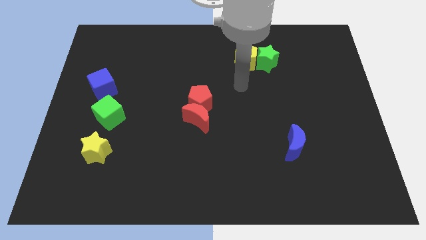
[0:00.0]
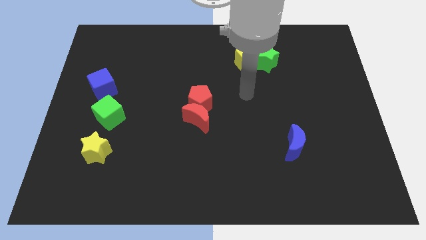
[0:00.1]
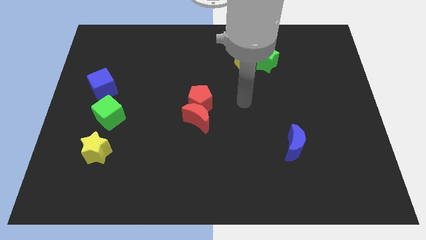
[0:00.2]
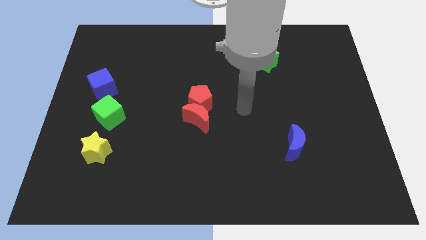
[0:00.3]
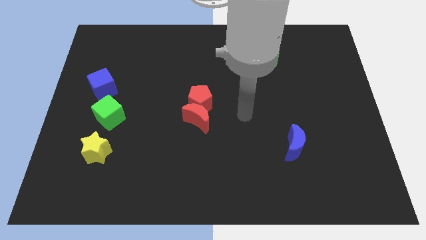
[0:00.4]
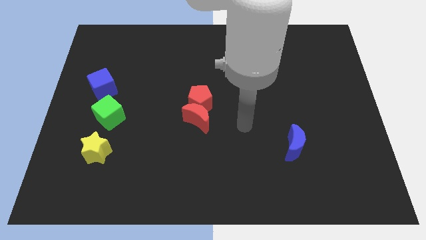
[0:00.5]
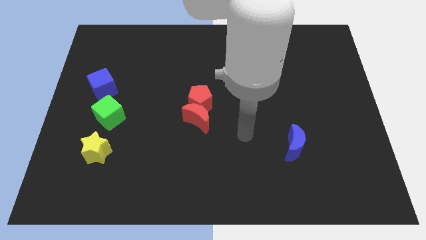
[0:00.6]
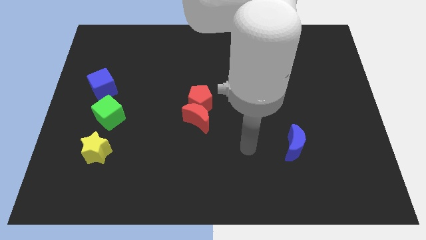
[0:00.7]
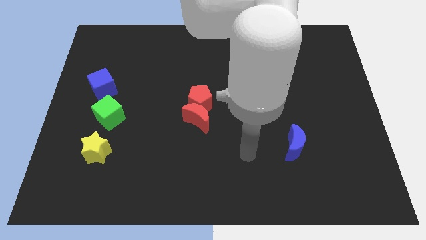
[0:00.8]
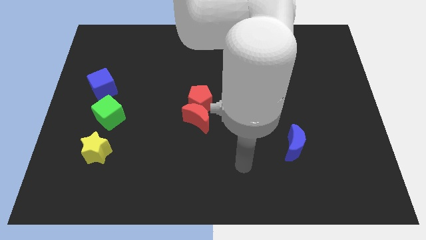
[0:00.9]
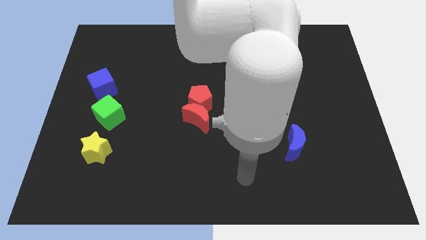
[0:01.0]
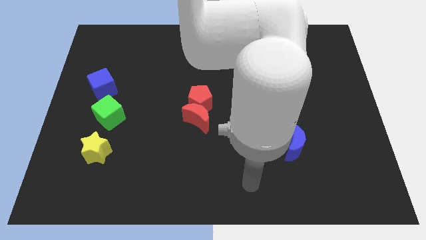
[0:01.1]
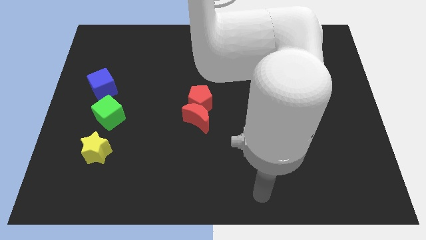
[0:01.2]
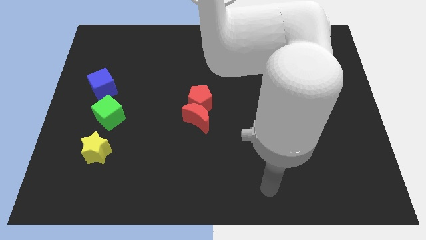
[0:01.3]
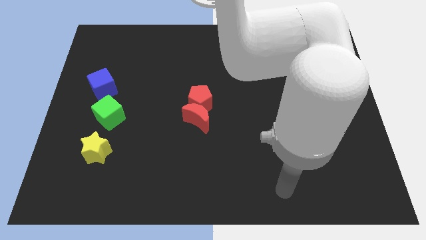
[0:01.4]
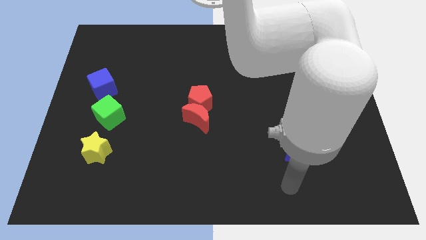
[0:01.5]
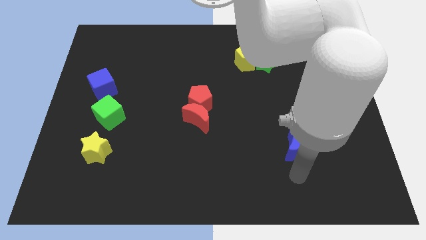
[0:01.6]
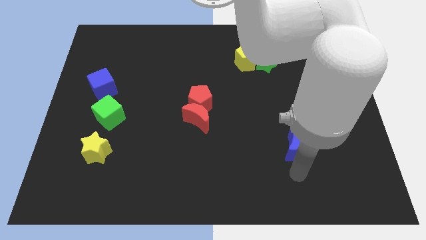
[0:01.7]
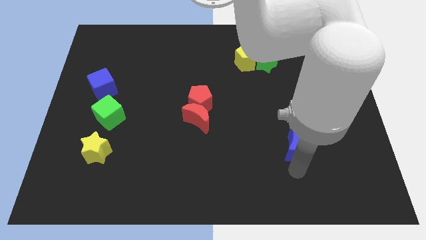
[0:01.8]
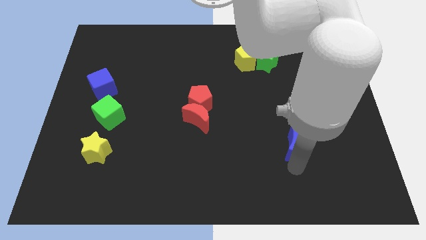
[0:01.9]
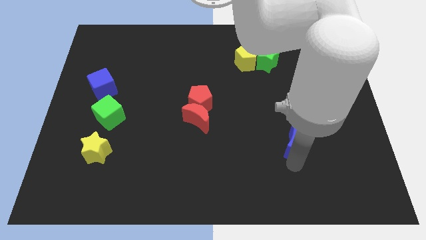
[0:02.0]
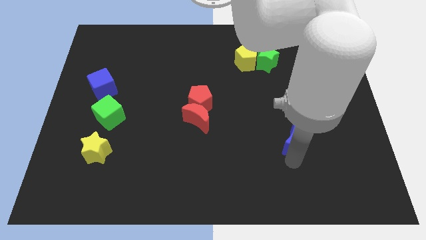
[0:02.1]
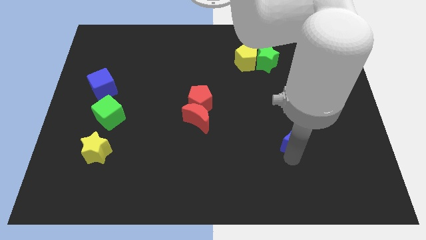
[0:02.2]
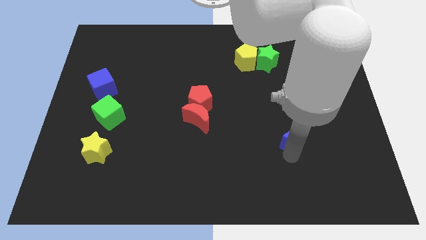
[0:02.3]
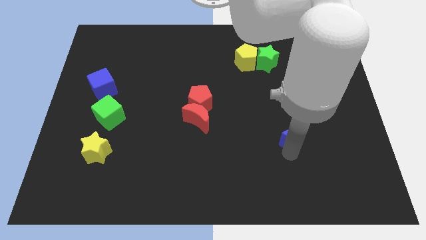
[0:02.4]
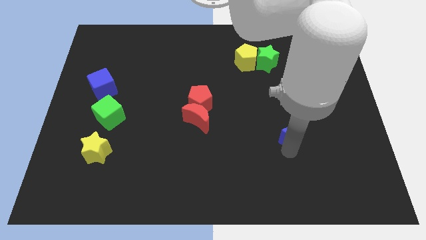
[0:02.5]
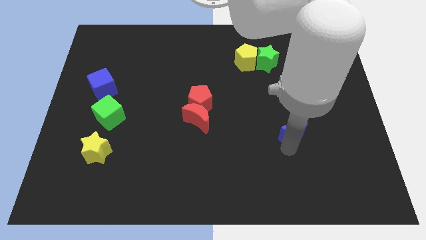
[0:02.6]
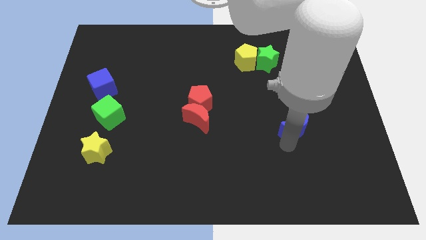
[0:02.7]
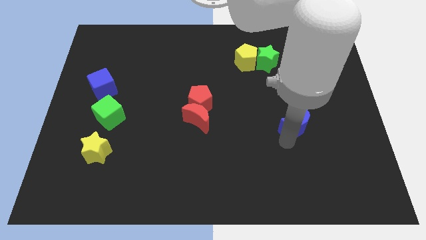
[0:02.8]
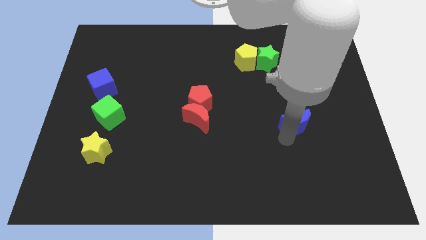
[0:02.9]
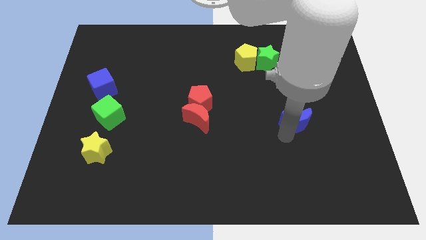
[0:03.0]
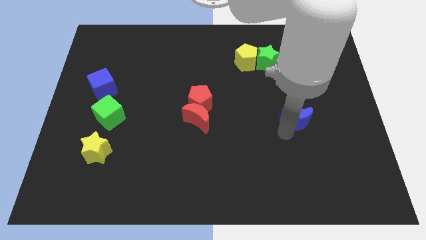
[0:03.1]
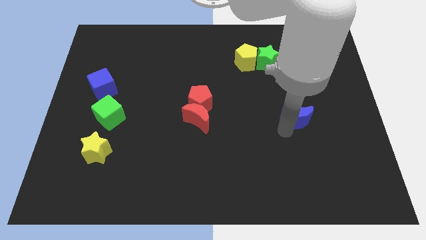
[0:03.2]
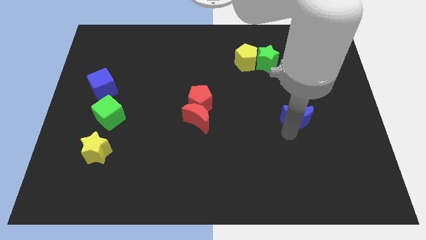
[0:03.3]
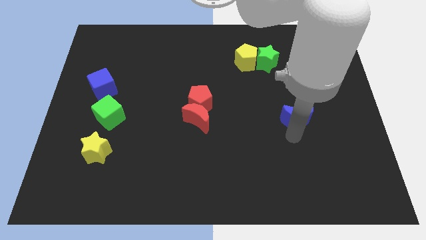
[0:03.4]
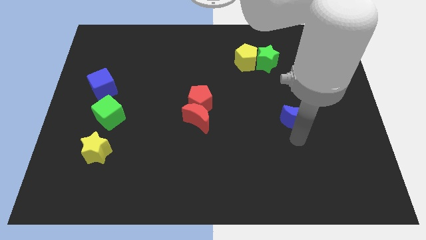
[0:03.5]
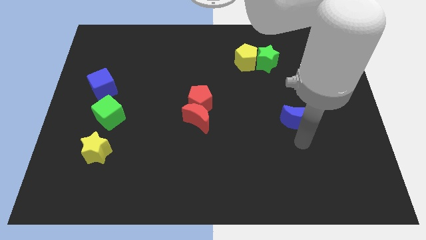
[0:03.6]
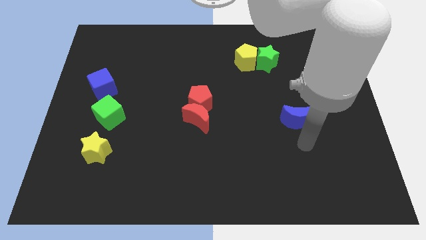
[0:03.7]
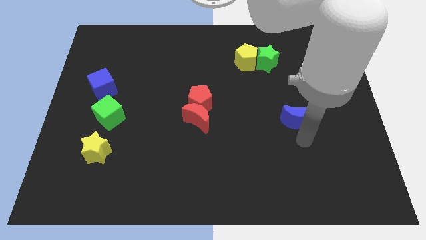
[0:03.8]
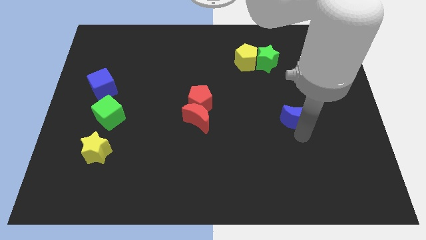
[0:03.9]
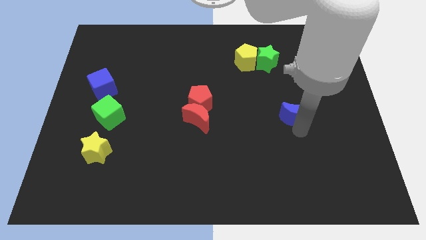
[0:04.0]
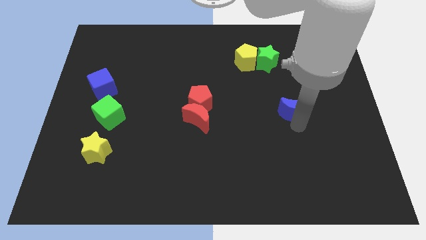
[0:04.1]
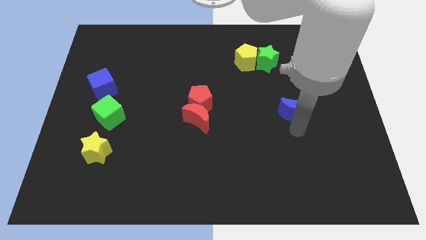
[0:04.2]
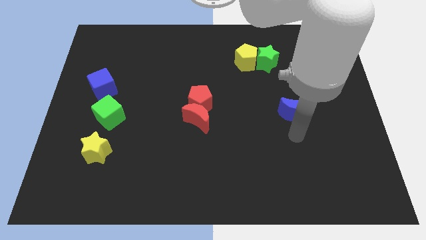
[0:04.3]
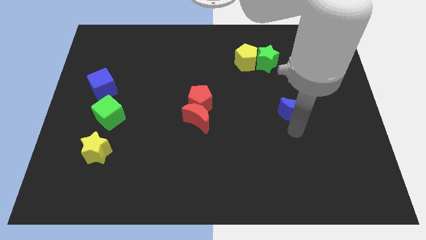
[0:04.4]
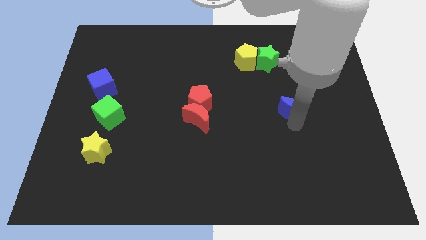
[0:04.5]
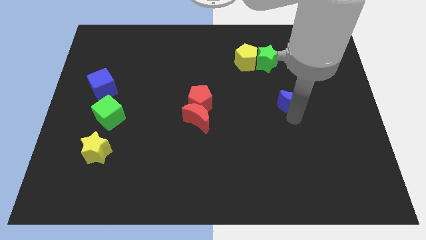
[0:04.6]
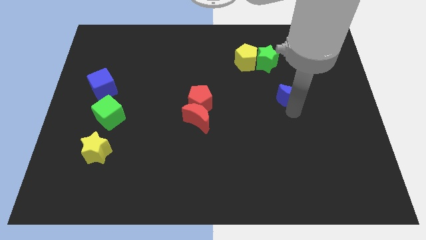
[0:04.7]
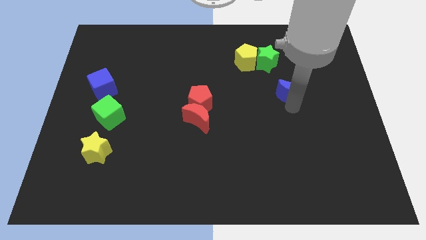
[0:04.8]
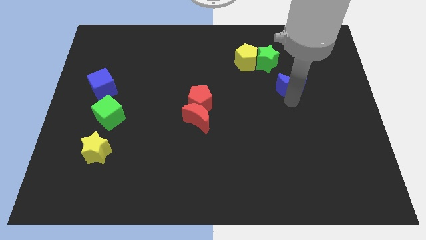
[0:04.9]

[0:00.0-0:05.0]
put the blue moon to the bottom right of the green star

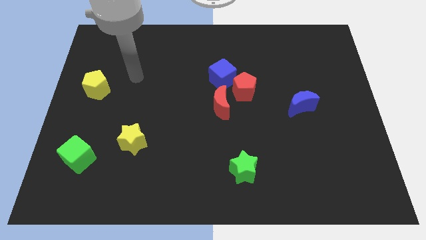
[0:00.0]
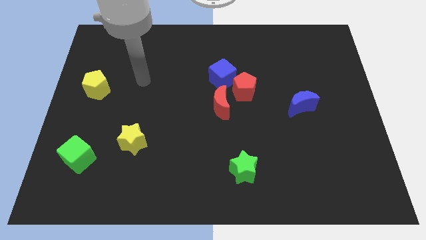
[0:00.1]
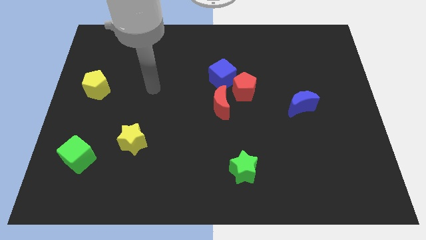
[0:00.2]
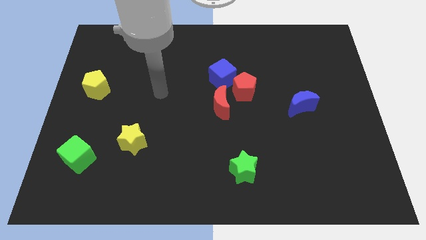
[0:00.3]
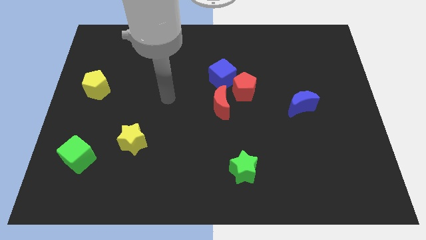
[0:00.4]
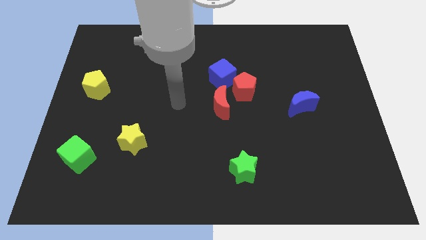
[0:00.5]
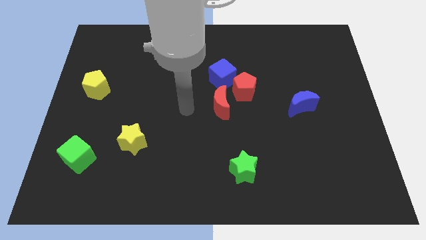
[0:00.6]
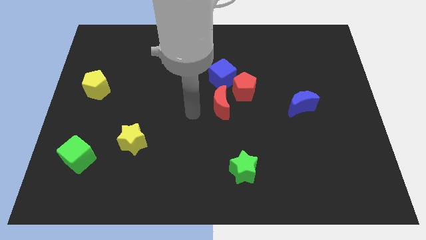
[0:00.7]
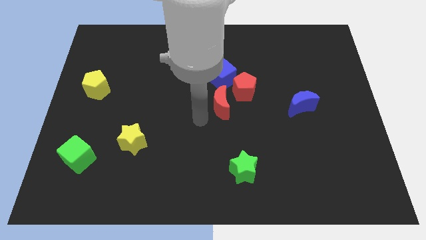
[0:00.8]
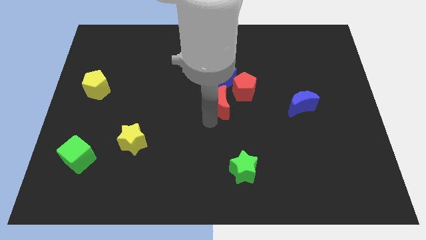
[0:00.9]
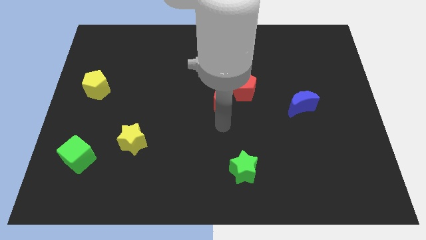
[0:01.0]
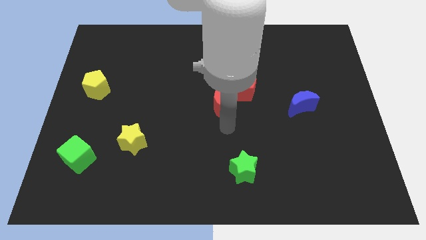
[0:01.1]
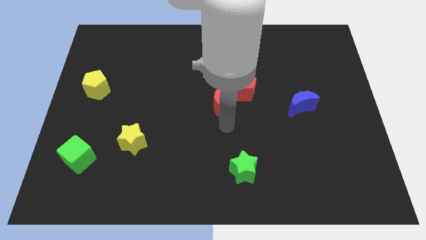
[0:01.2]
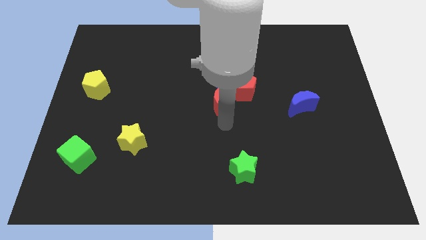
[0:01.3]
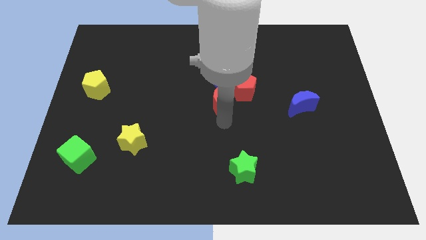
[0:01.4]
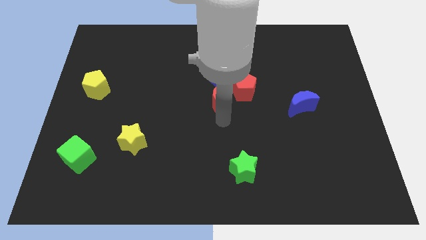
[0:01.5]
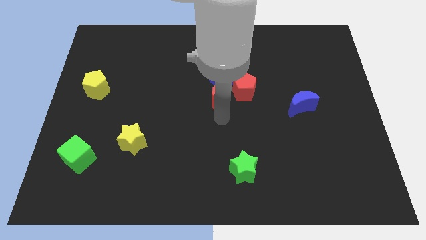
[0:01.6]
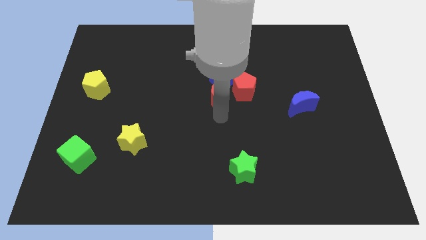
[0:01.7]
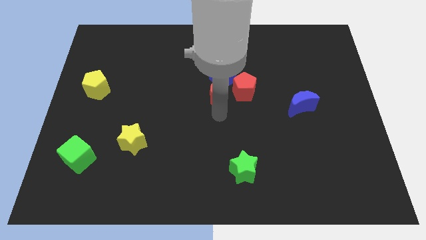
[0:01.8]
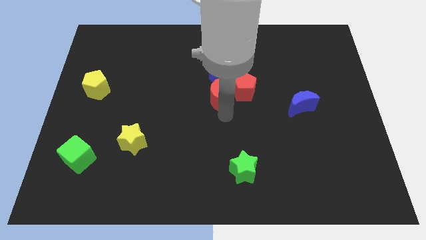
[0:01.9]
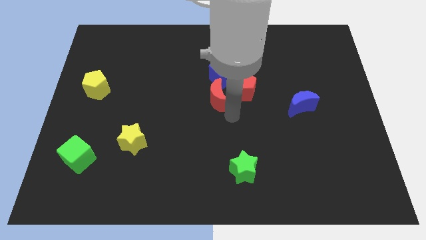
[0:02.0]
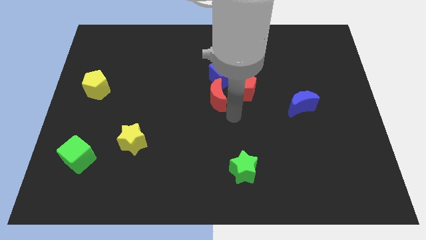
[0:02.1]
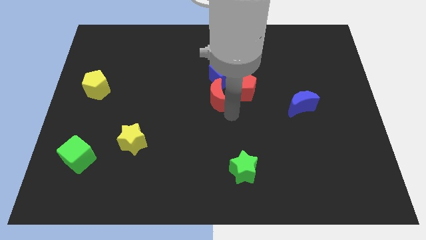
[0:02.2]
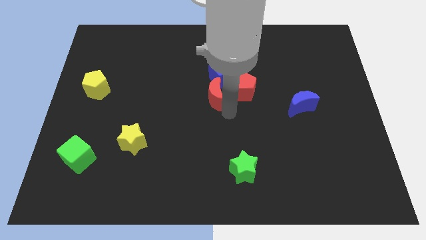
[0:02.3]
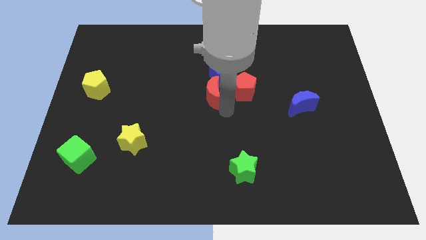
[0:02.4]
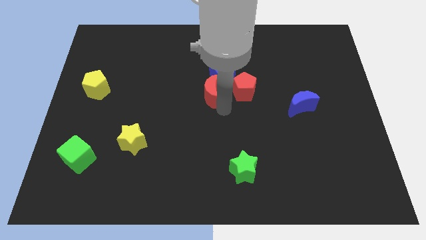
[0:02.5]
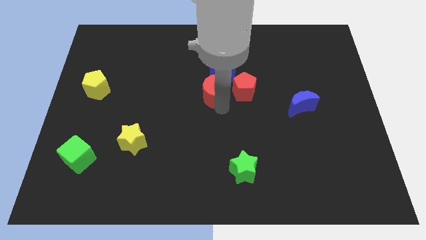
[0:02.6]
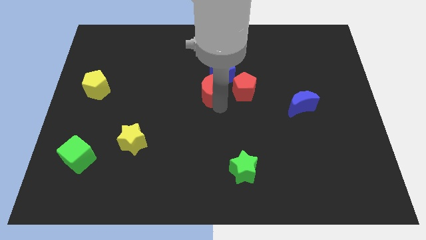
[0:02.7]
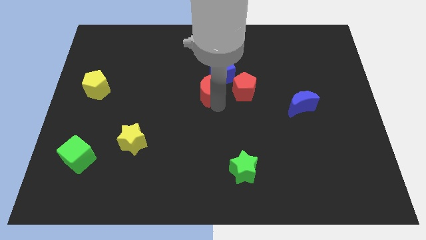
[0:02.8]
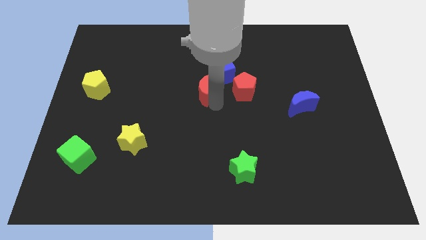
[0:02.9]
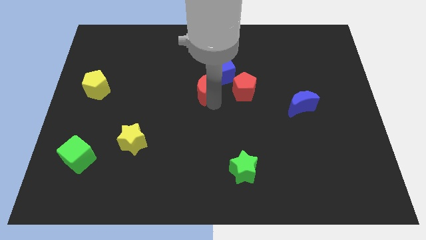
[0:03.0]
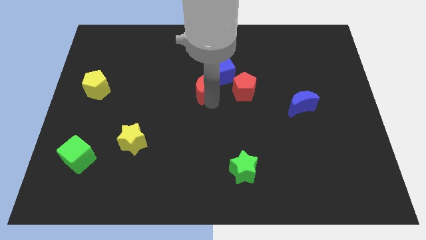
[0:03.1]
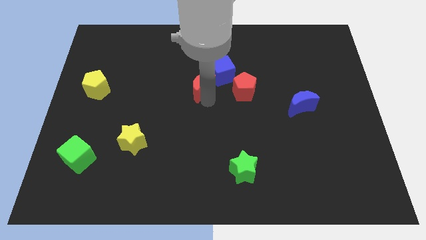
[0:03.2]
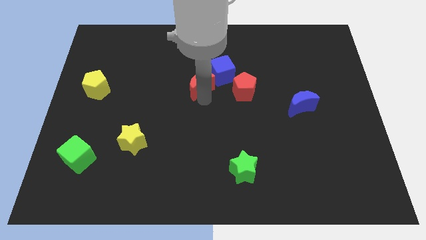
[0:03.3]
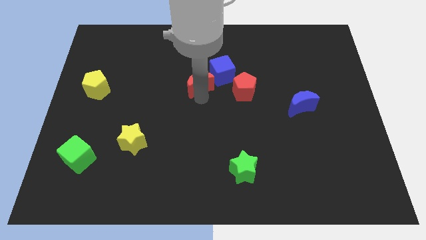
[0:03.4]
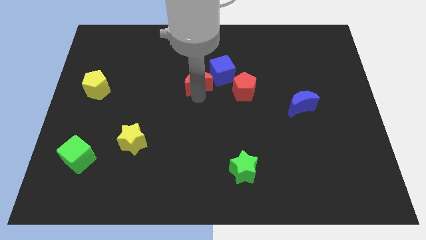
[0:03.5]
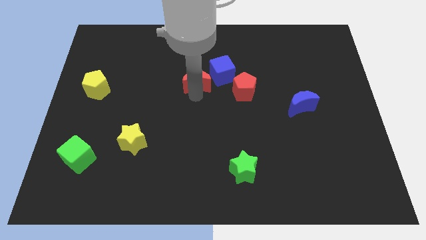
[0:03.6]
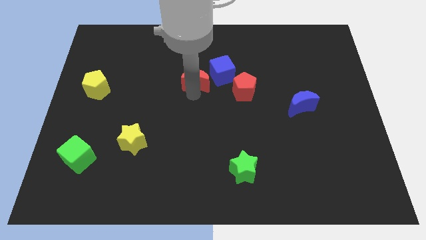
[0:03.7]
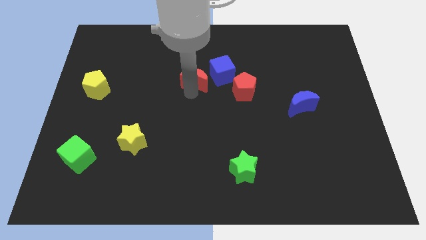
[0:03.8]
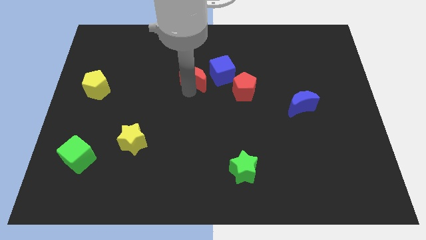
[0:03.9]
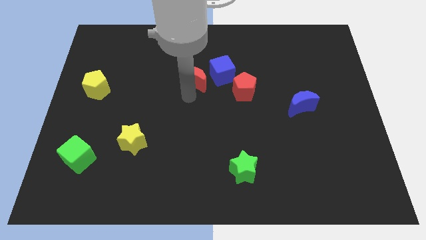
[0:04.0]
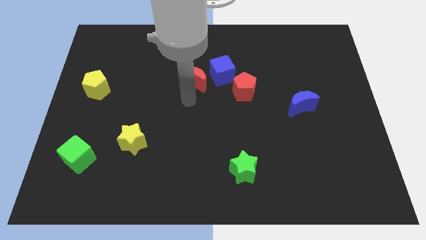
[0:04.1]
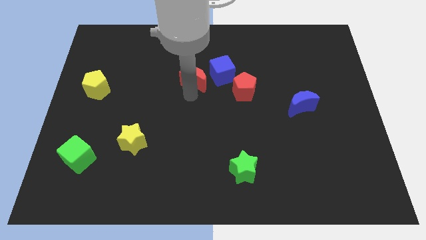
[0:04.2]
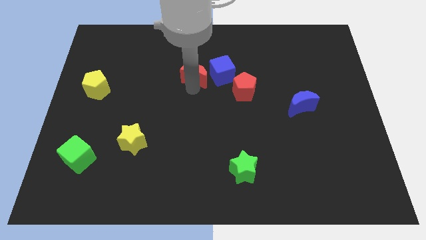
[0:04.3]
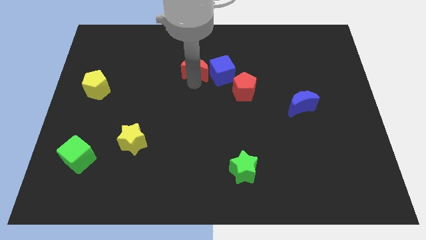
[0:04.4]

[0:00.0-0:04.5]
move the red moon to the top left side of the blue cube
